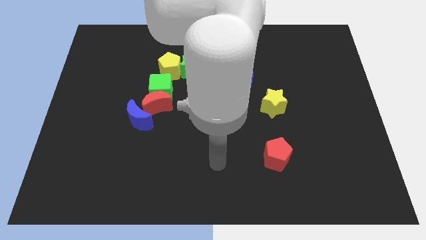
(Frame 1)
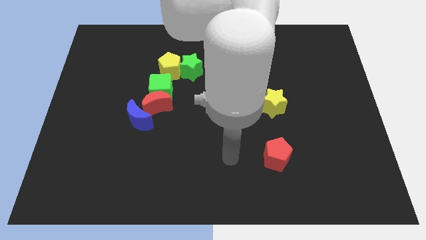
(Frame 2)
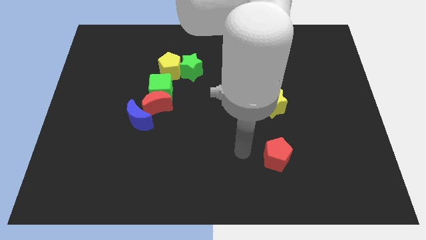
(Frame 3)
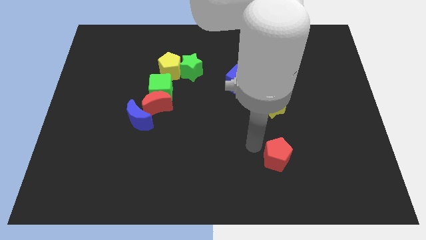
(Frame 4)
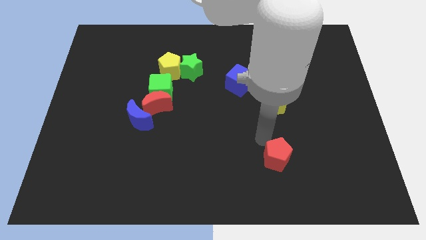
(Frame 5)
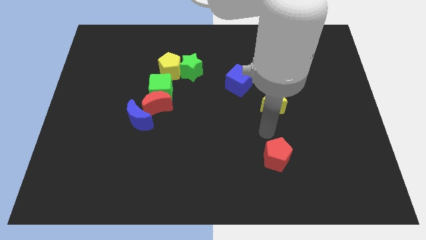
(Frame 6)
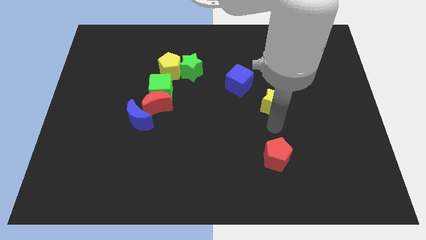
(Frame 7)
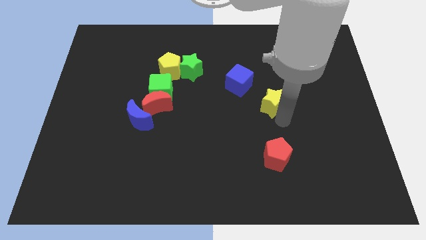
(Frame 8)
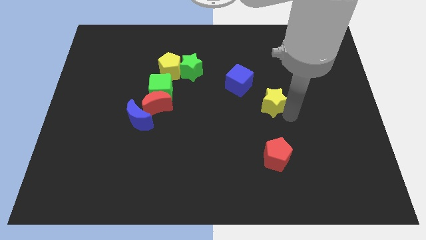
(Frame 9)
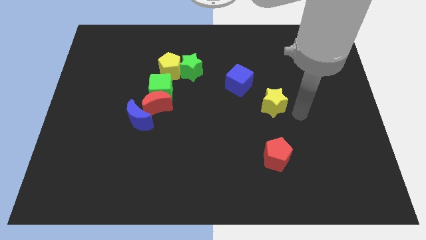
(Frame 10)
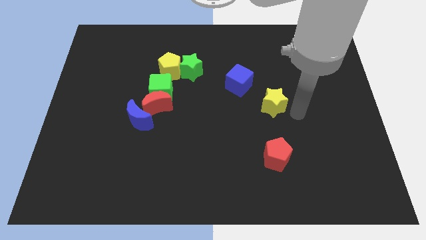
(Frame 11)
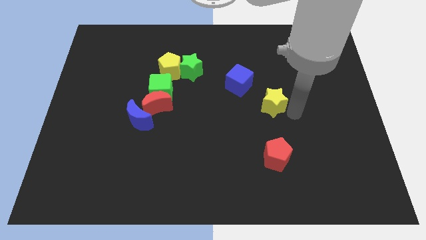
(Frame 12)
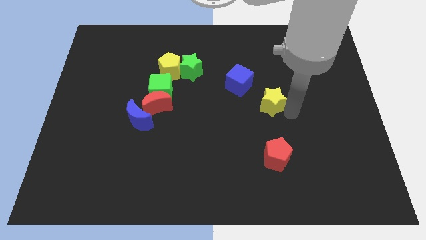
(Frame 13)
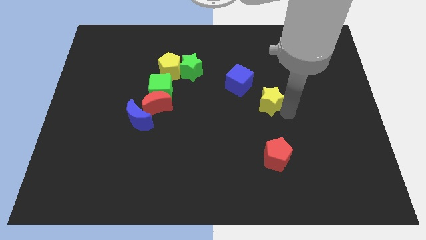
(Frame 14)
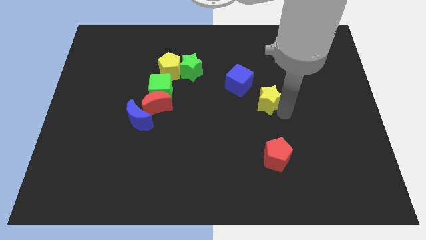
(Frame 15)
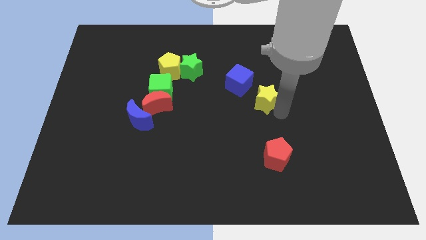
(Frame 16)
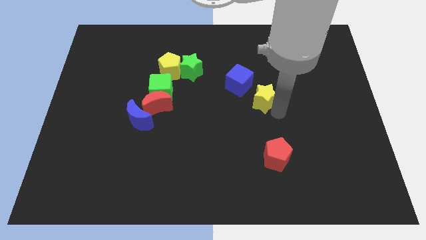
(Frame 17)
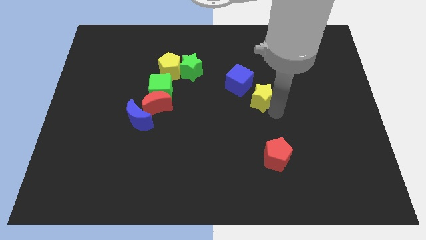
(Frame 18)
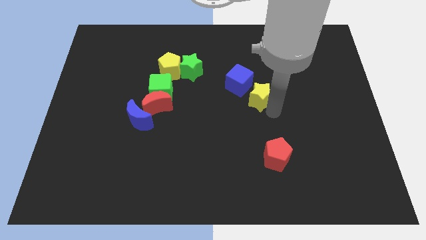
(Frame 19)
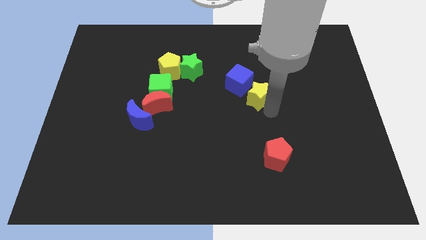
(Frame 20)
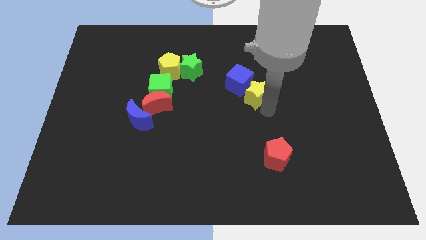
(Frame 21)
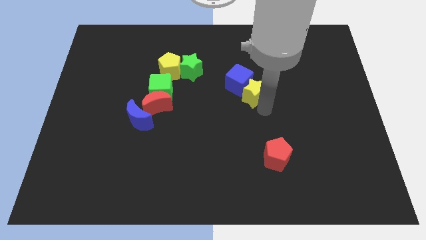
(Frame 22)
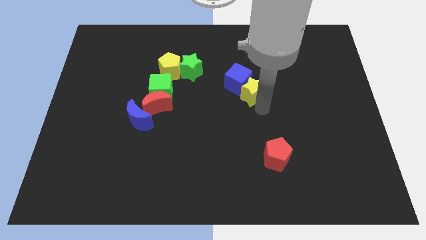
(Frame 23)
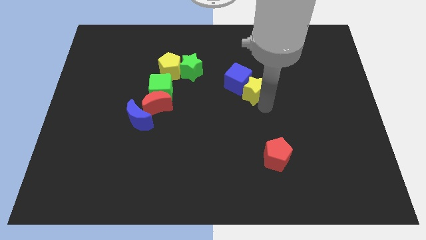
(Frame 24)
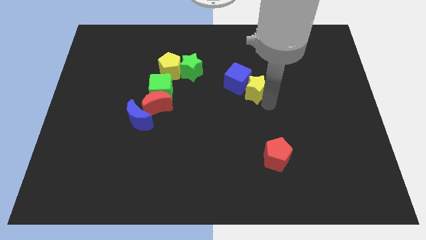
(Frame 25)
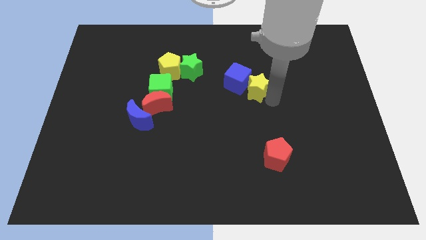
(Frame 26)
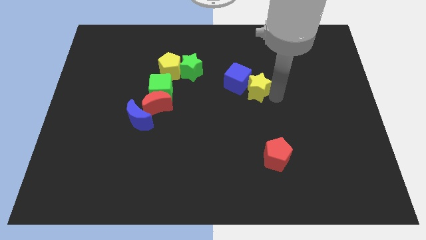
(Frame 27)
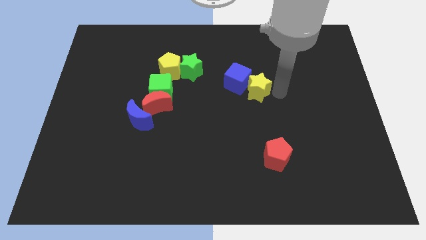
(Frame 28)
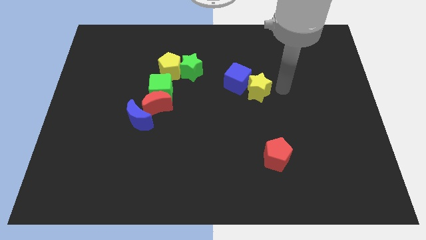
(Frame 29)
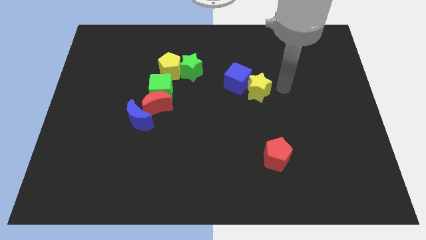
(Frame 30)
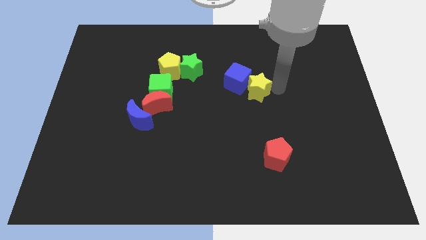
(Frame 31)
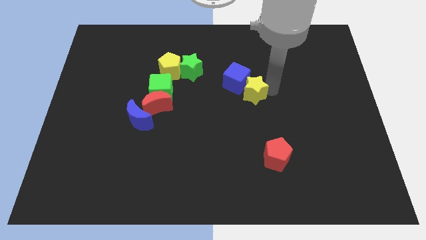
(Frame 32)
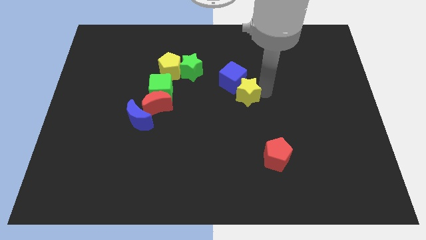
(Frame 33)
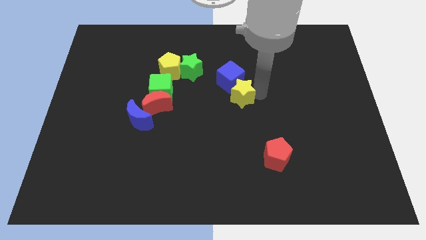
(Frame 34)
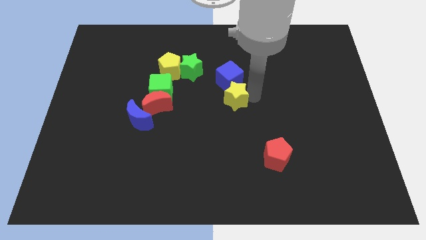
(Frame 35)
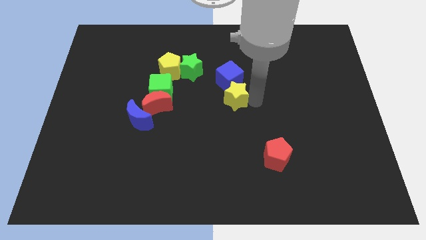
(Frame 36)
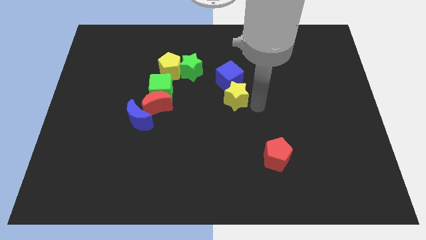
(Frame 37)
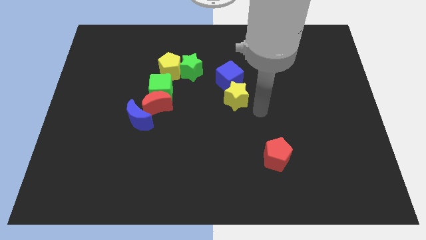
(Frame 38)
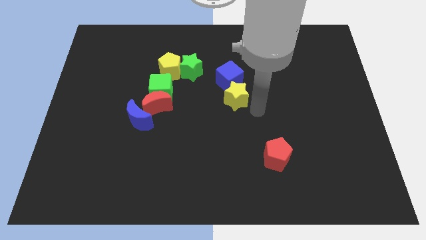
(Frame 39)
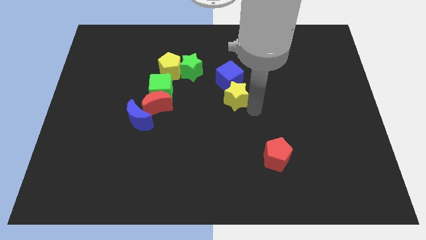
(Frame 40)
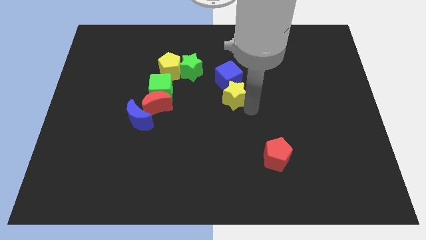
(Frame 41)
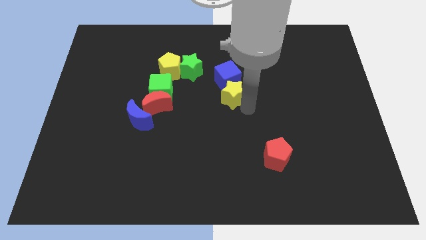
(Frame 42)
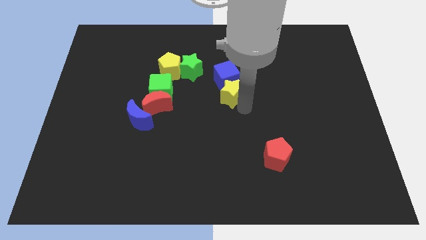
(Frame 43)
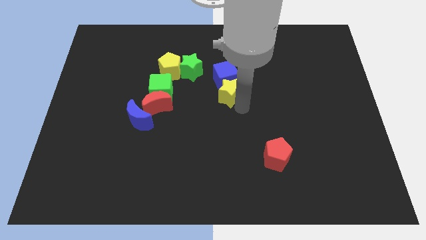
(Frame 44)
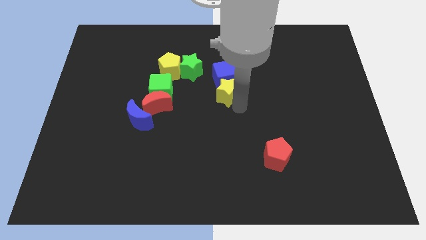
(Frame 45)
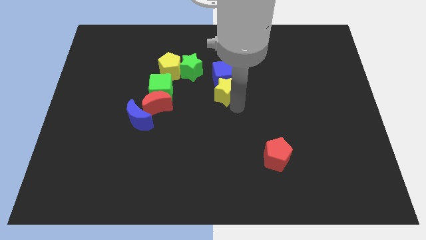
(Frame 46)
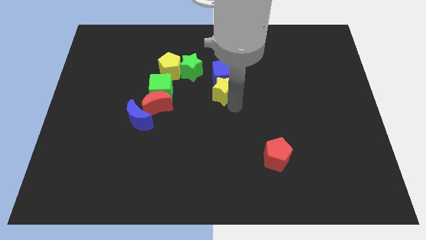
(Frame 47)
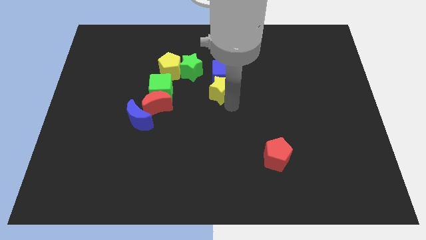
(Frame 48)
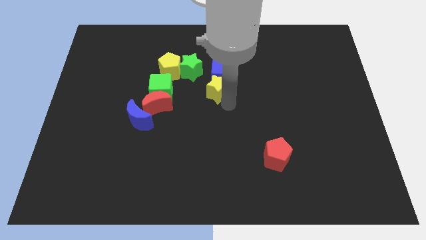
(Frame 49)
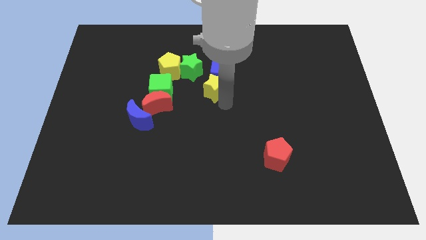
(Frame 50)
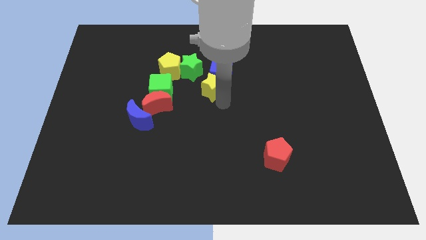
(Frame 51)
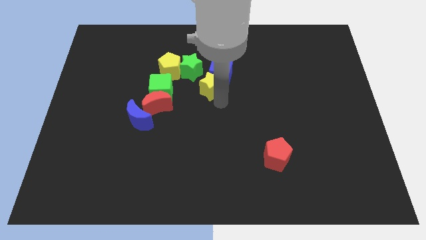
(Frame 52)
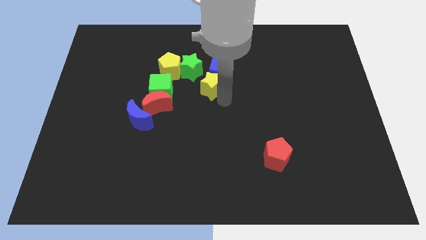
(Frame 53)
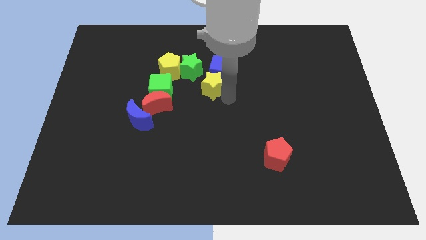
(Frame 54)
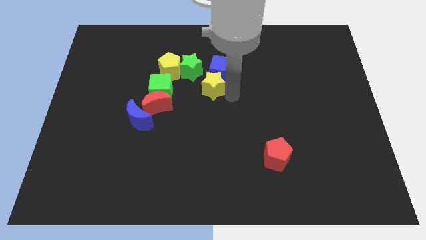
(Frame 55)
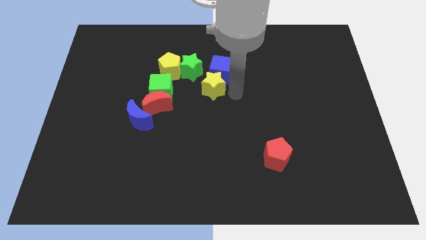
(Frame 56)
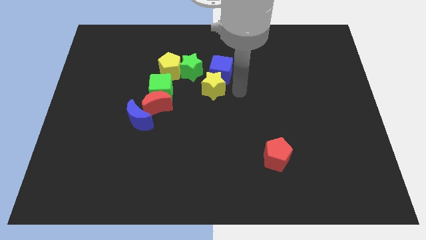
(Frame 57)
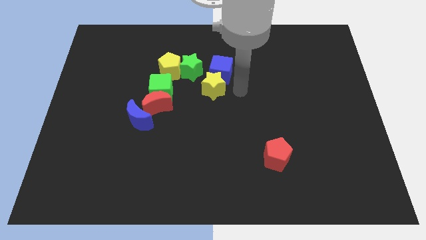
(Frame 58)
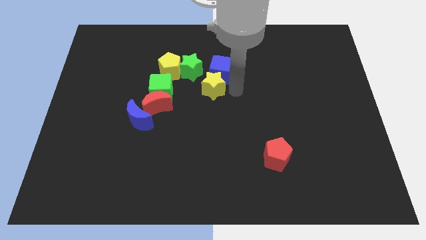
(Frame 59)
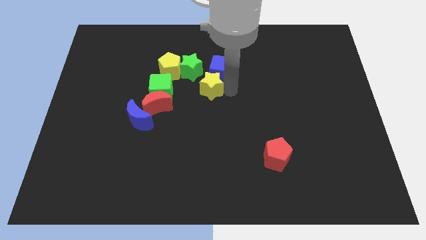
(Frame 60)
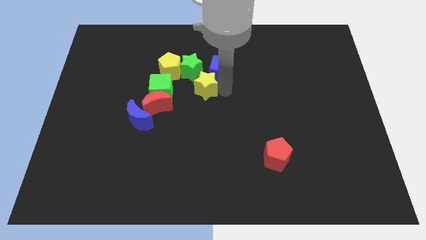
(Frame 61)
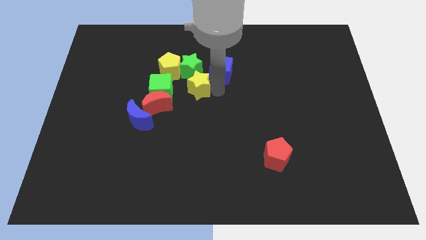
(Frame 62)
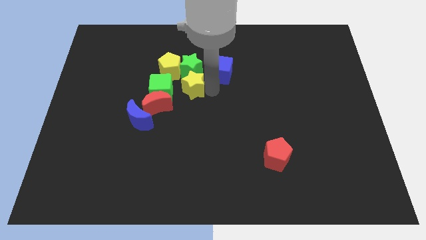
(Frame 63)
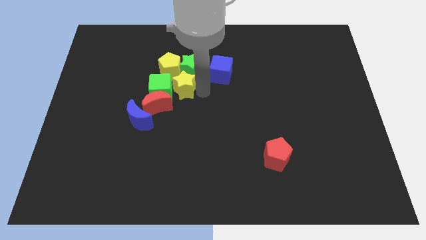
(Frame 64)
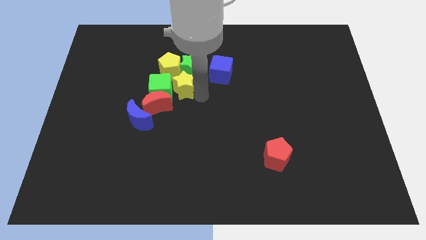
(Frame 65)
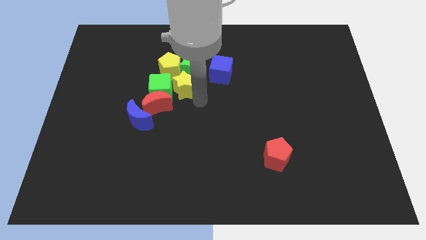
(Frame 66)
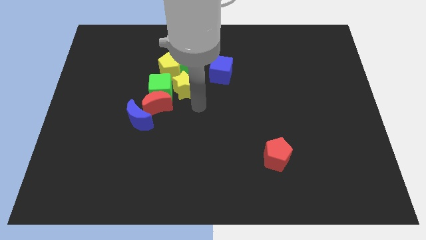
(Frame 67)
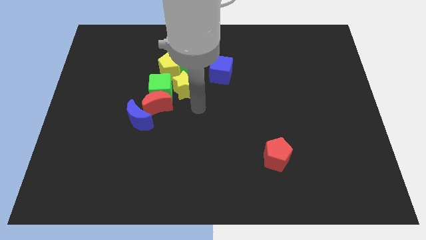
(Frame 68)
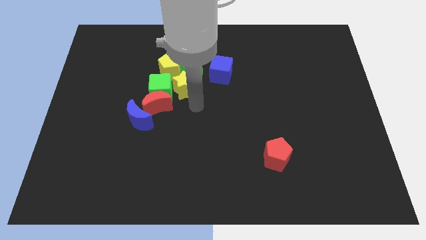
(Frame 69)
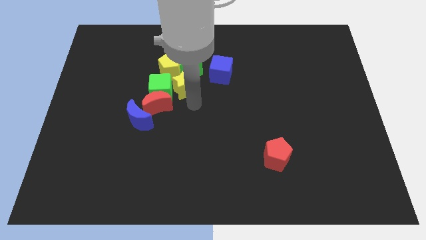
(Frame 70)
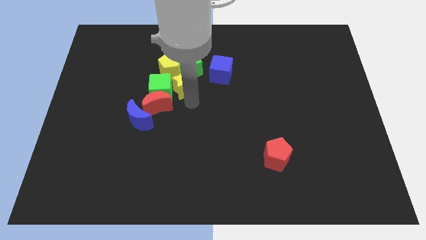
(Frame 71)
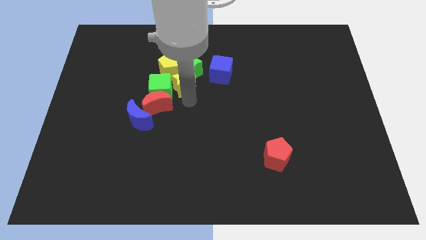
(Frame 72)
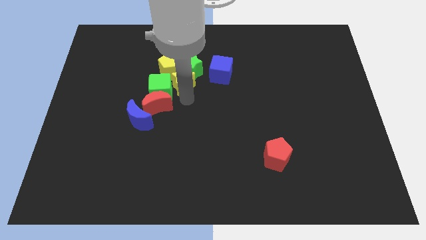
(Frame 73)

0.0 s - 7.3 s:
put the yellow star towards the yellow pentagon
